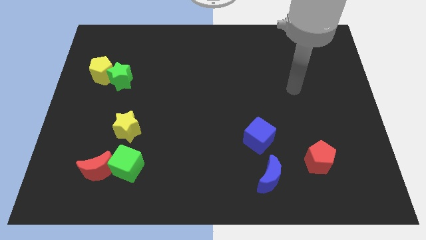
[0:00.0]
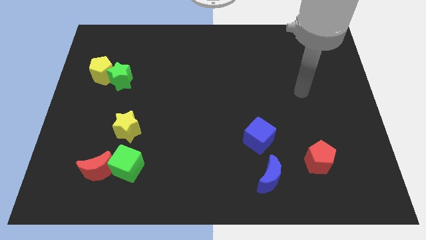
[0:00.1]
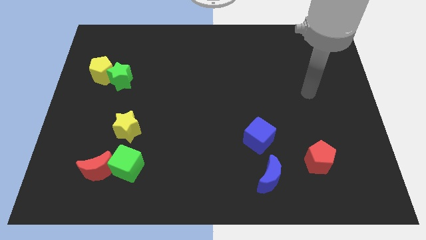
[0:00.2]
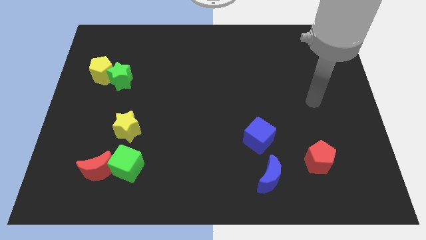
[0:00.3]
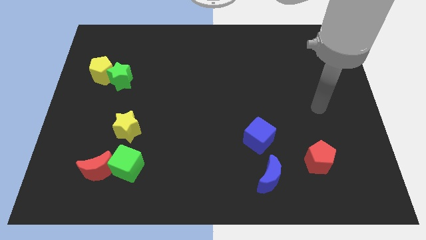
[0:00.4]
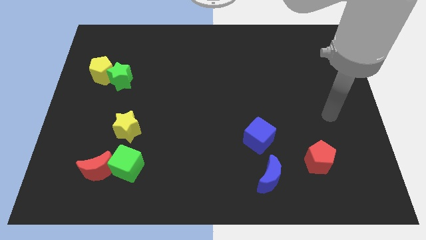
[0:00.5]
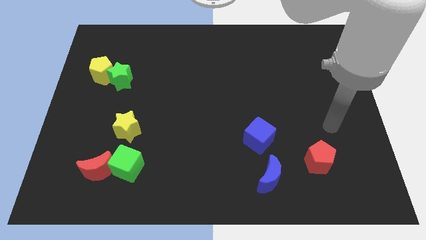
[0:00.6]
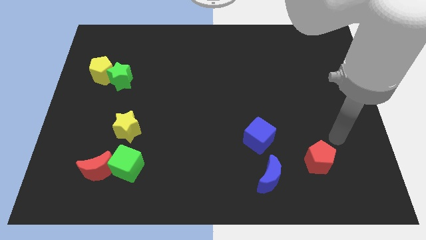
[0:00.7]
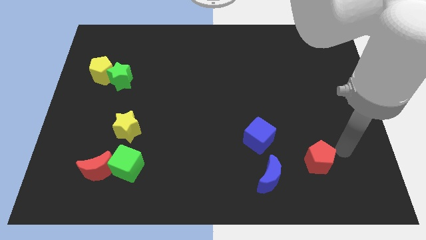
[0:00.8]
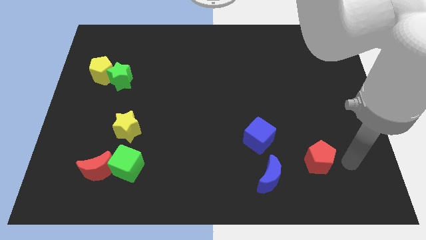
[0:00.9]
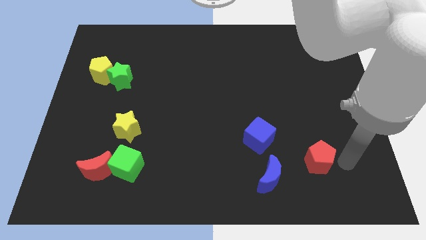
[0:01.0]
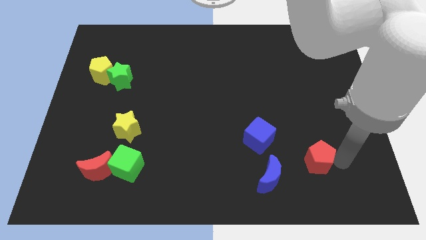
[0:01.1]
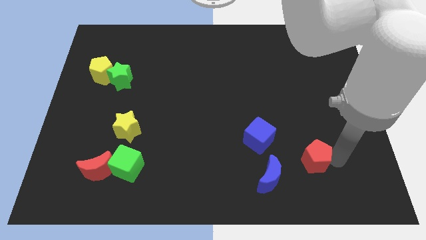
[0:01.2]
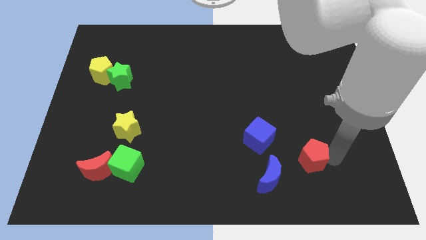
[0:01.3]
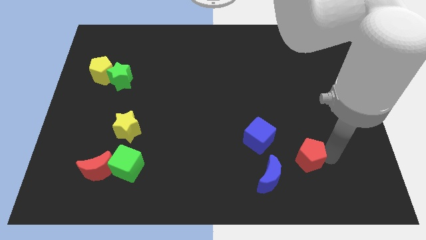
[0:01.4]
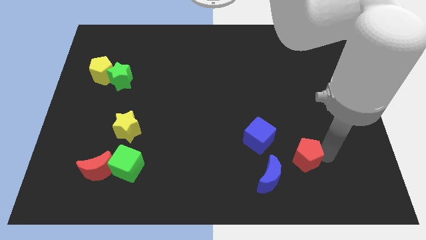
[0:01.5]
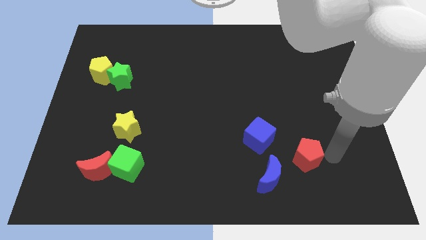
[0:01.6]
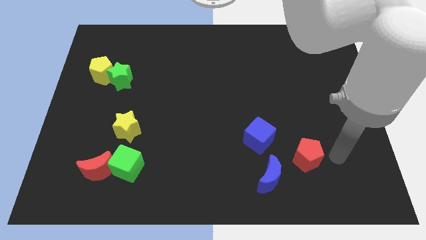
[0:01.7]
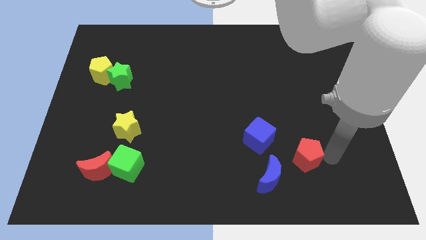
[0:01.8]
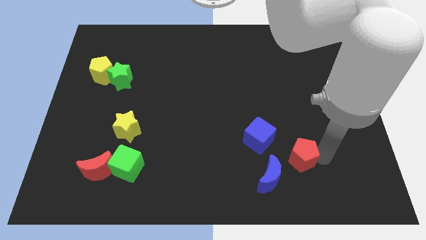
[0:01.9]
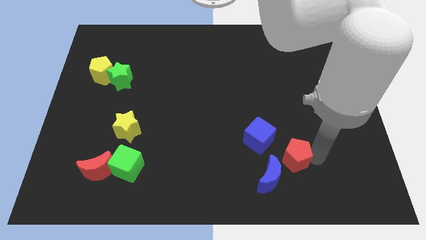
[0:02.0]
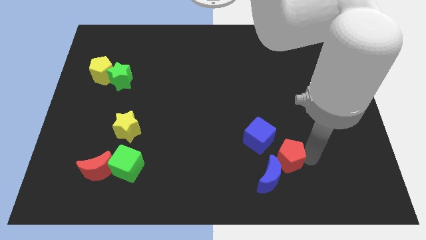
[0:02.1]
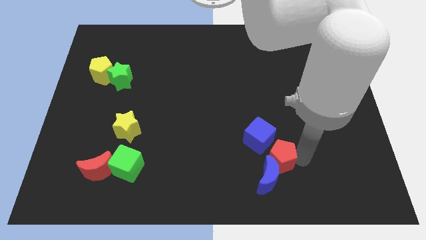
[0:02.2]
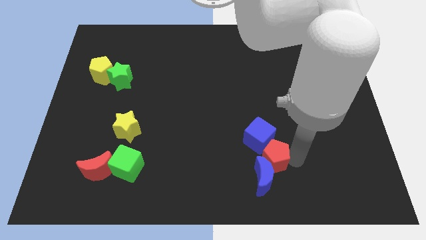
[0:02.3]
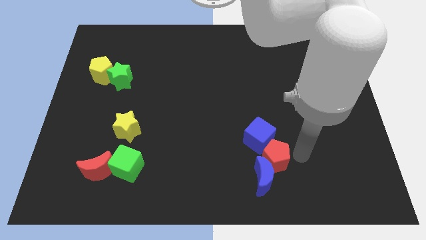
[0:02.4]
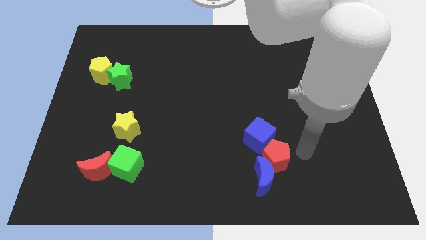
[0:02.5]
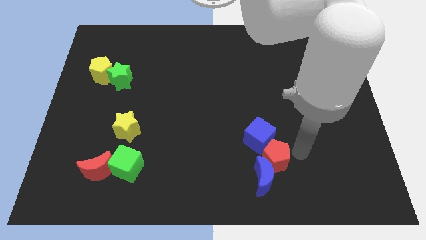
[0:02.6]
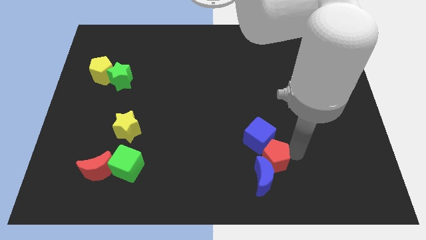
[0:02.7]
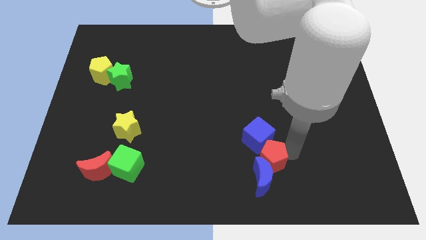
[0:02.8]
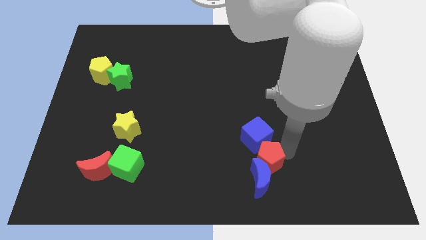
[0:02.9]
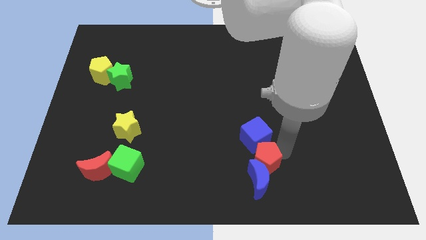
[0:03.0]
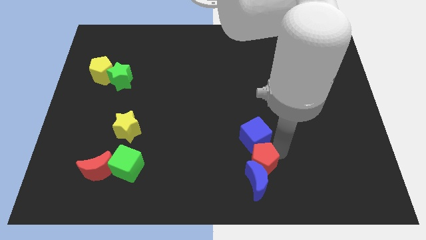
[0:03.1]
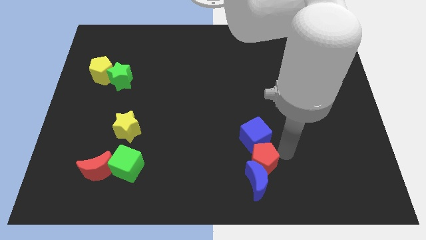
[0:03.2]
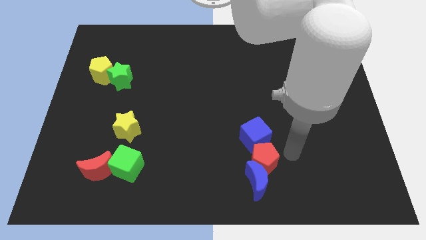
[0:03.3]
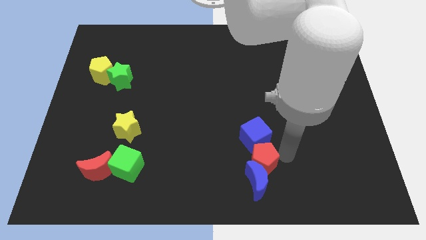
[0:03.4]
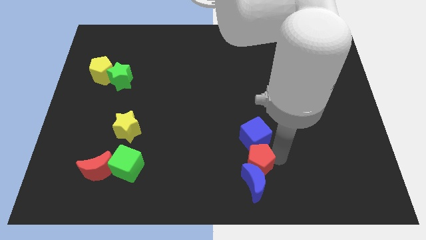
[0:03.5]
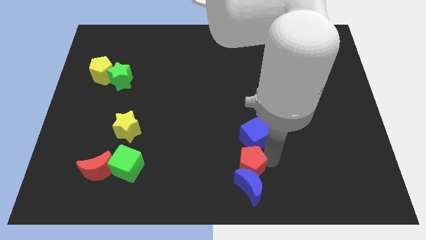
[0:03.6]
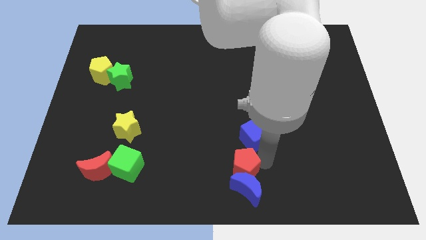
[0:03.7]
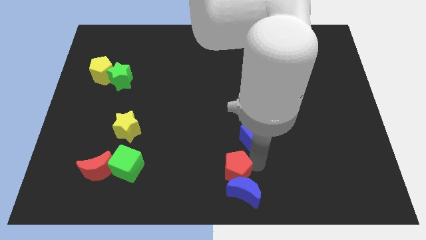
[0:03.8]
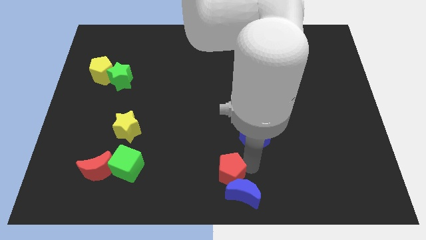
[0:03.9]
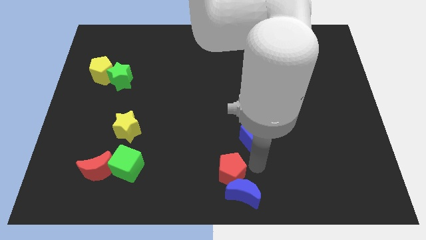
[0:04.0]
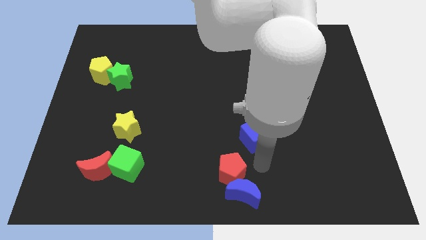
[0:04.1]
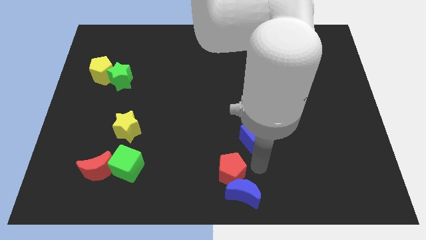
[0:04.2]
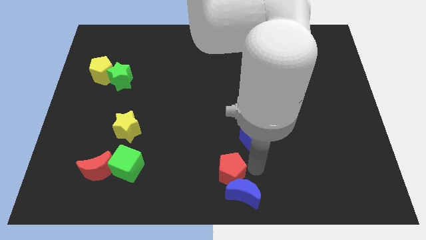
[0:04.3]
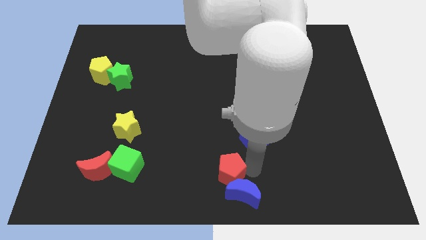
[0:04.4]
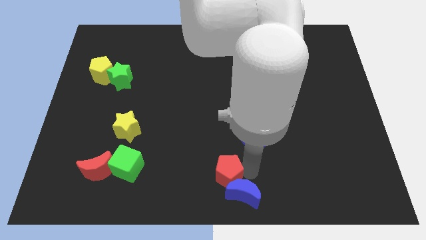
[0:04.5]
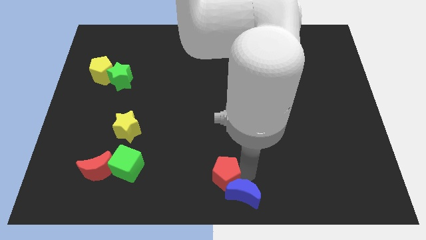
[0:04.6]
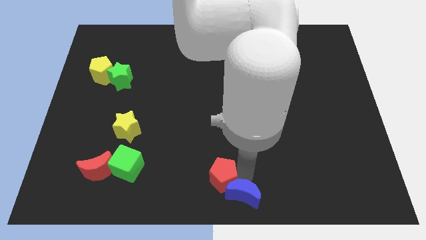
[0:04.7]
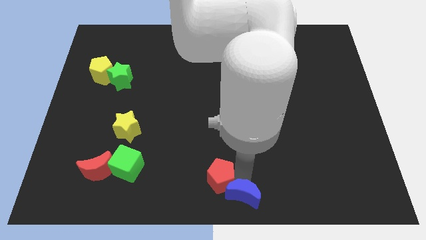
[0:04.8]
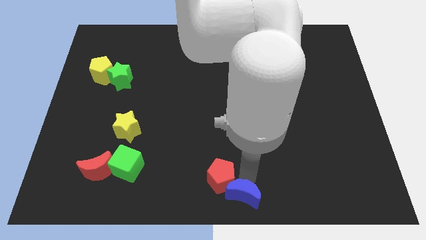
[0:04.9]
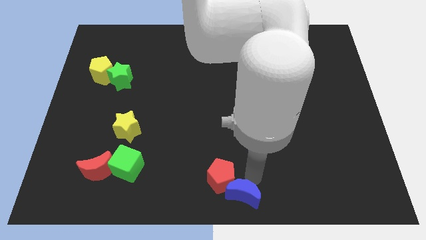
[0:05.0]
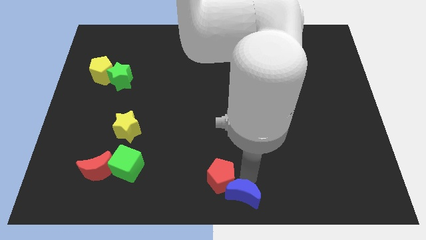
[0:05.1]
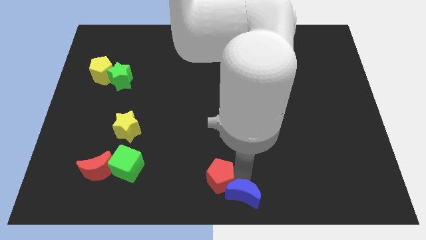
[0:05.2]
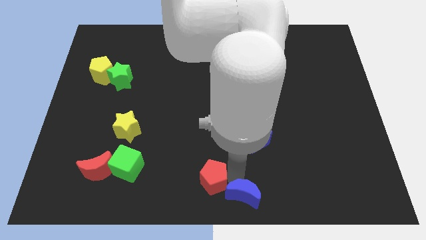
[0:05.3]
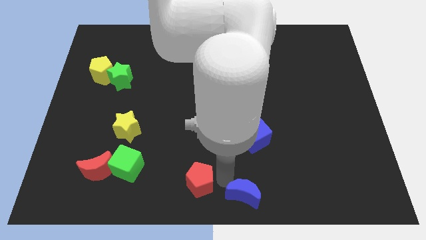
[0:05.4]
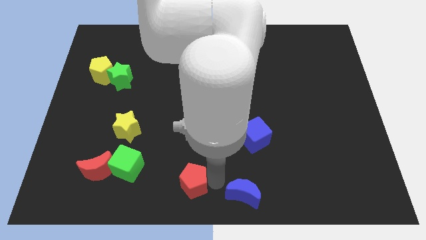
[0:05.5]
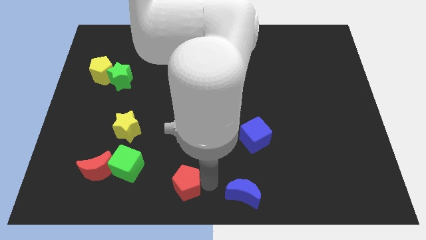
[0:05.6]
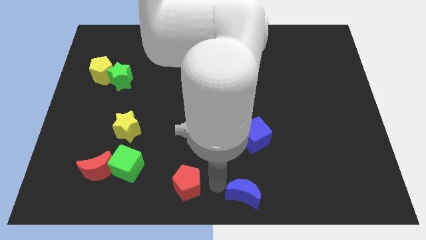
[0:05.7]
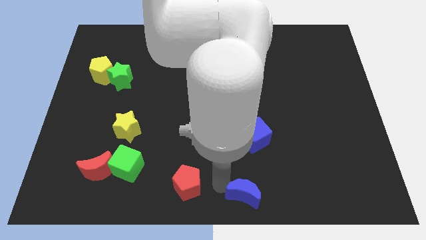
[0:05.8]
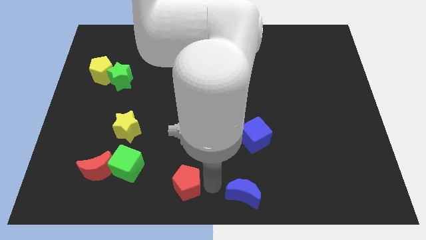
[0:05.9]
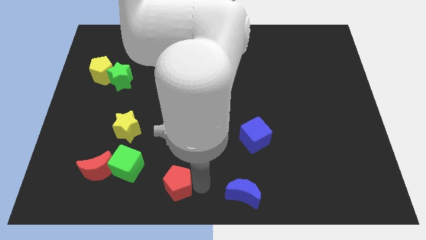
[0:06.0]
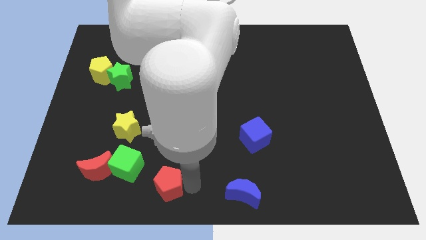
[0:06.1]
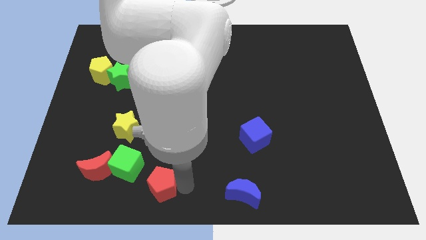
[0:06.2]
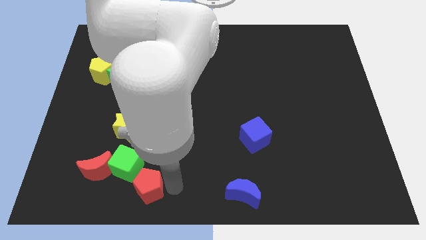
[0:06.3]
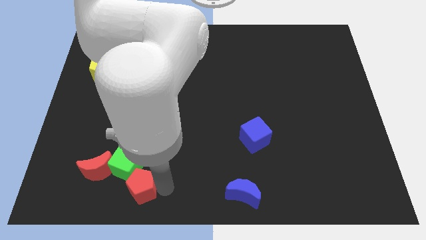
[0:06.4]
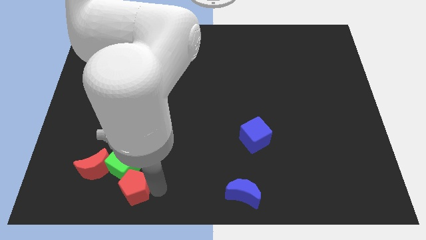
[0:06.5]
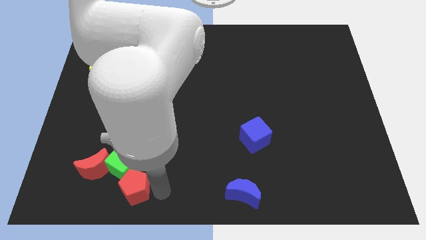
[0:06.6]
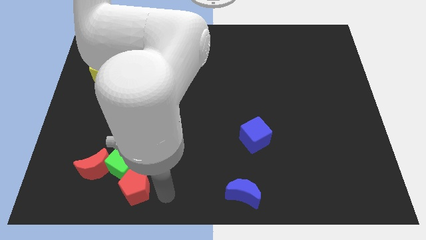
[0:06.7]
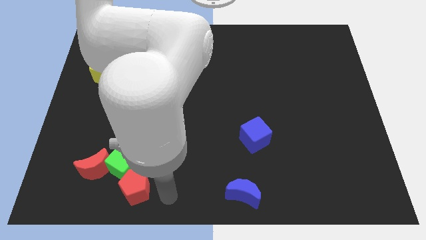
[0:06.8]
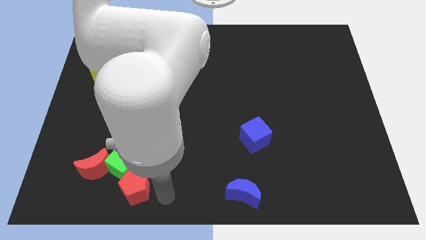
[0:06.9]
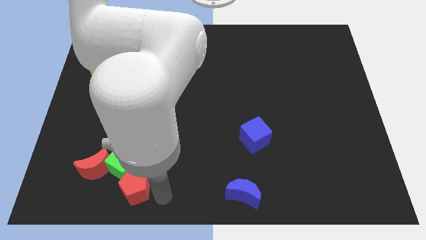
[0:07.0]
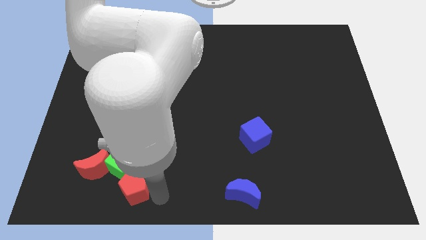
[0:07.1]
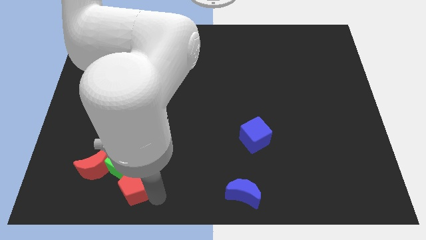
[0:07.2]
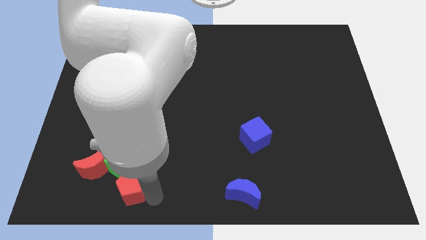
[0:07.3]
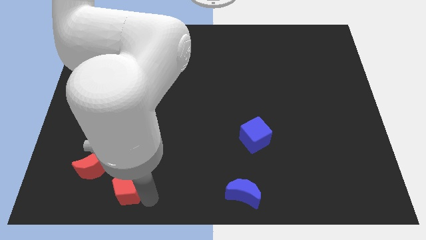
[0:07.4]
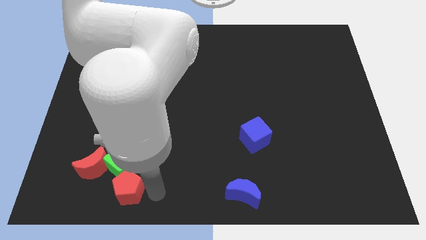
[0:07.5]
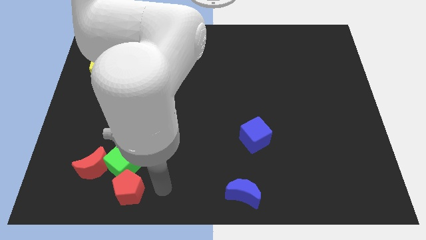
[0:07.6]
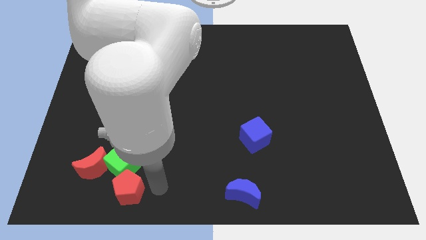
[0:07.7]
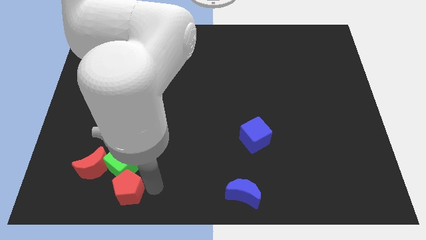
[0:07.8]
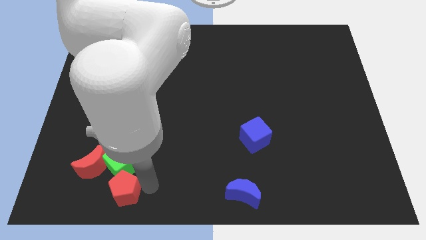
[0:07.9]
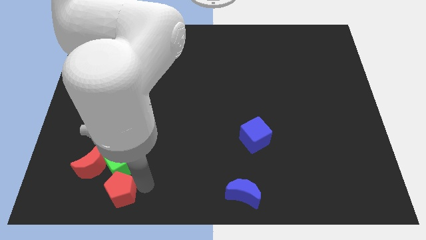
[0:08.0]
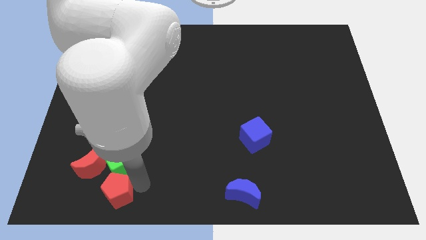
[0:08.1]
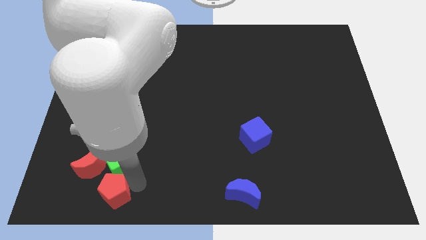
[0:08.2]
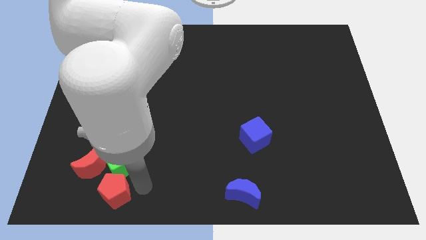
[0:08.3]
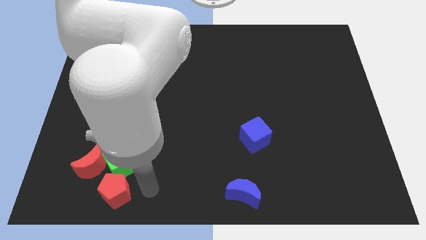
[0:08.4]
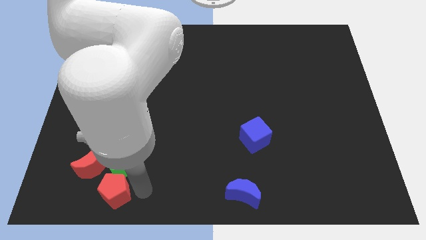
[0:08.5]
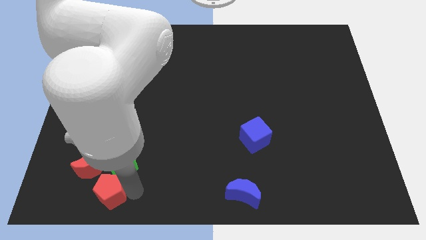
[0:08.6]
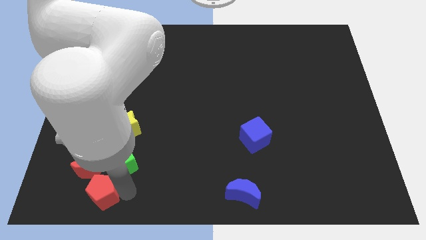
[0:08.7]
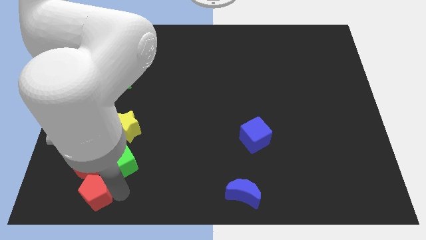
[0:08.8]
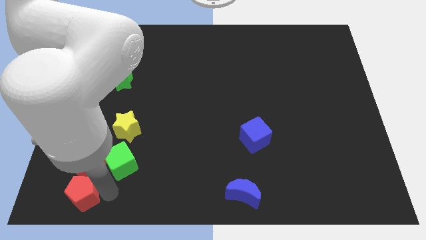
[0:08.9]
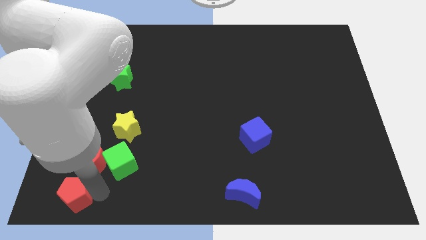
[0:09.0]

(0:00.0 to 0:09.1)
put the red pentagon to the bottom left of the board
